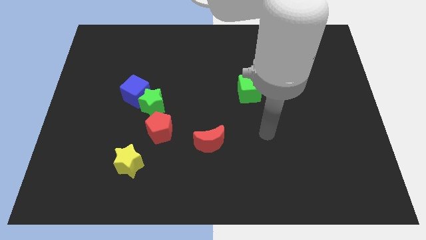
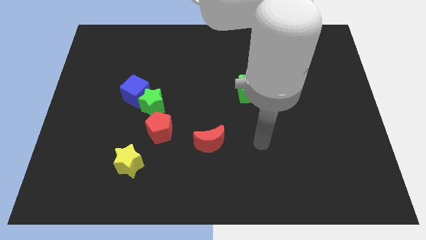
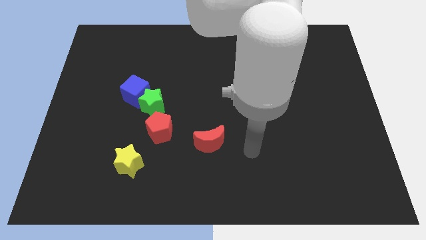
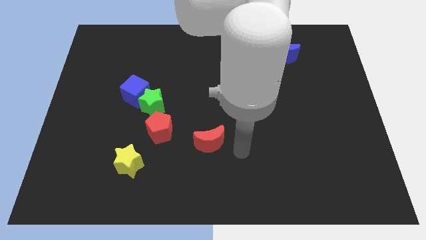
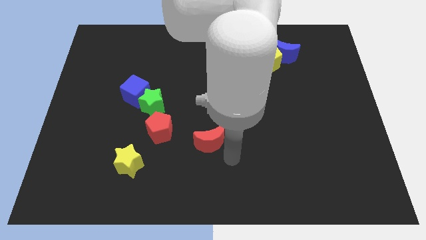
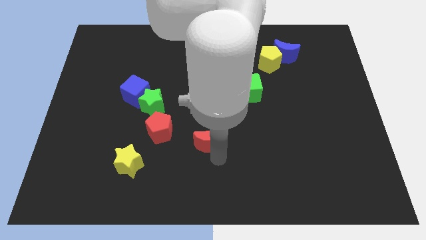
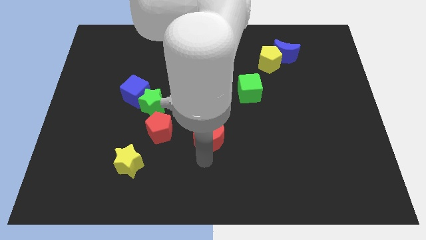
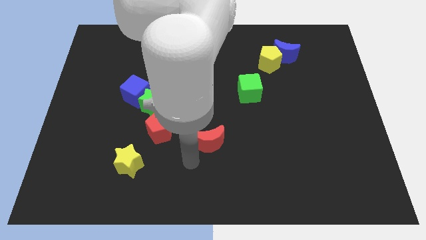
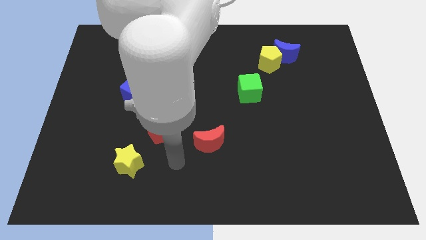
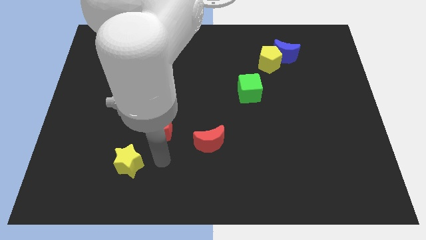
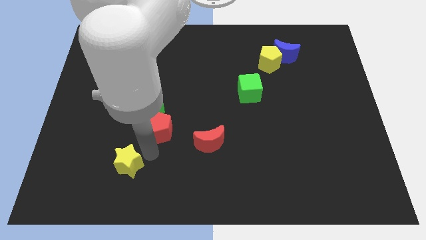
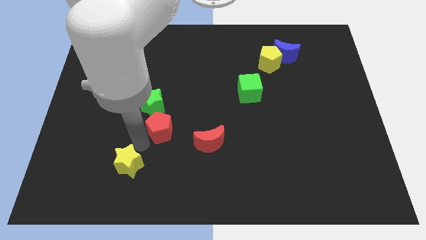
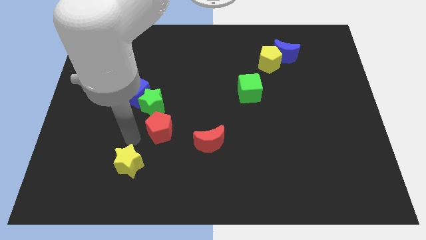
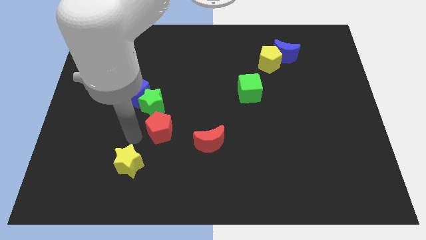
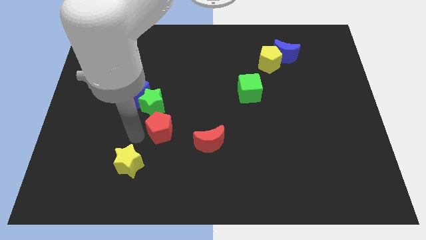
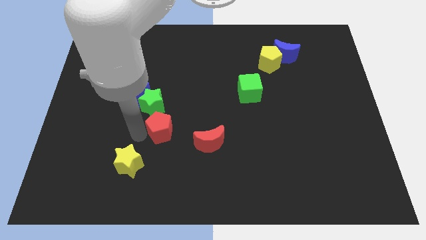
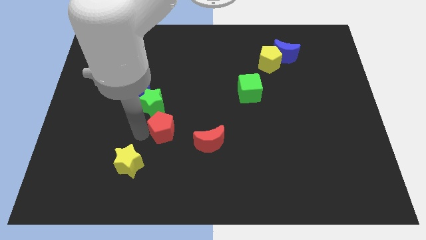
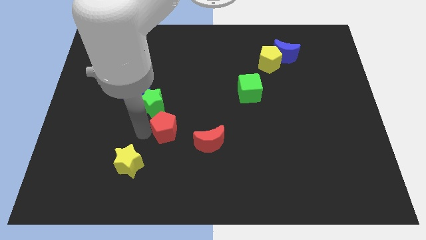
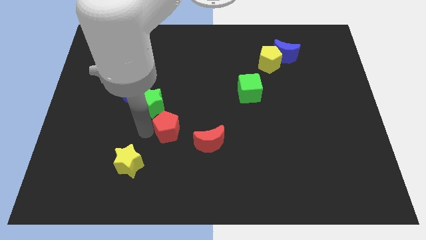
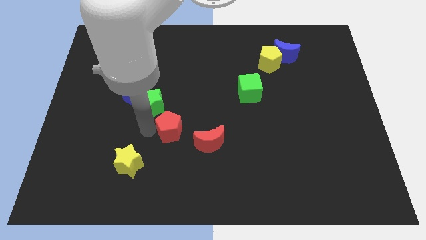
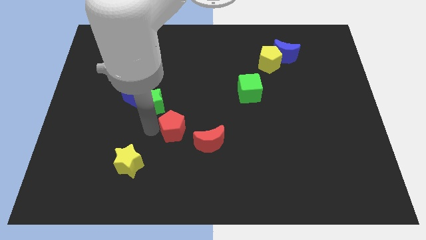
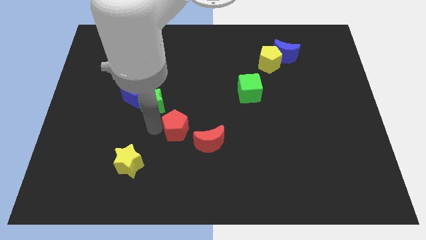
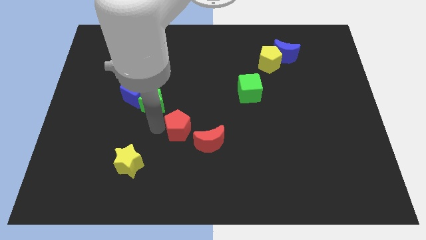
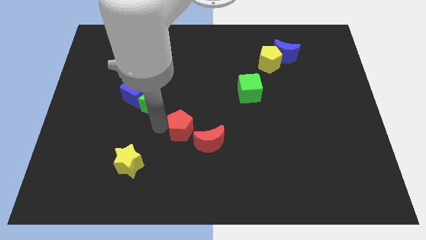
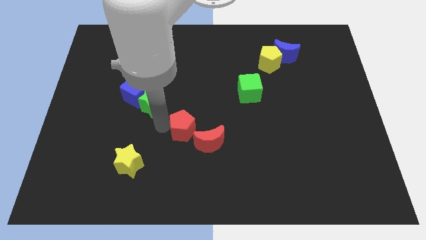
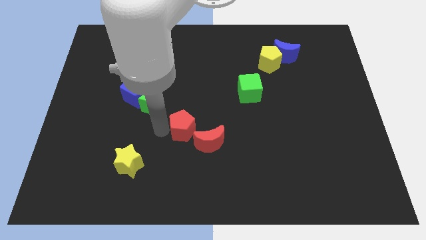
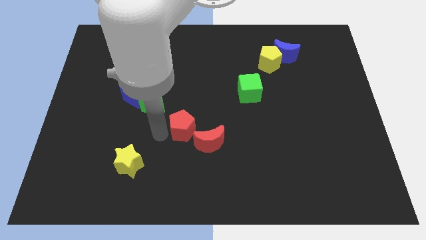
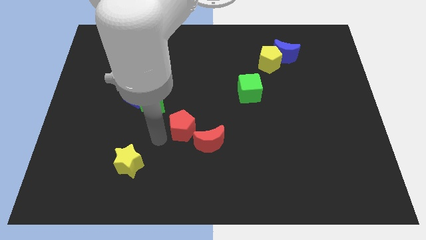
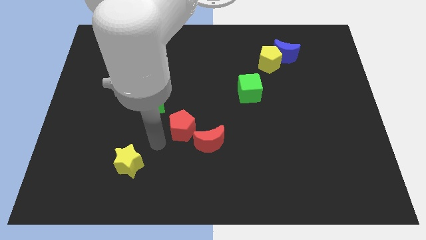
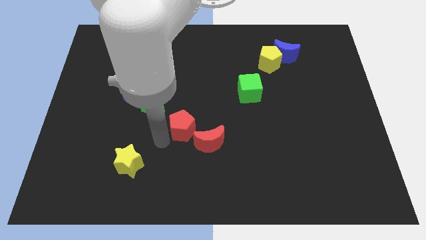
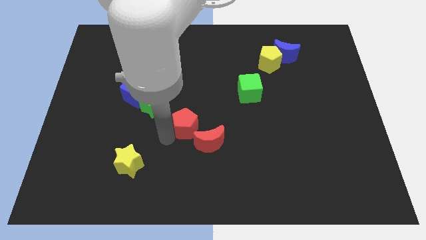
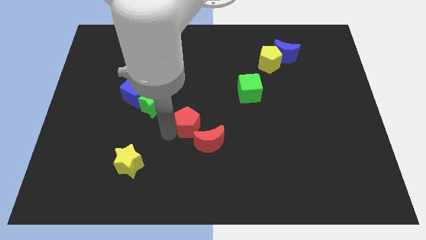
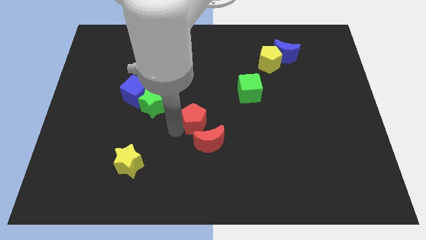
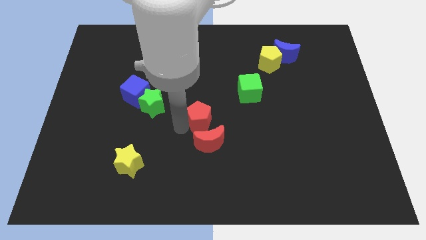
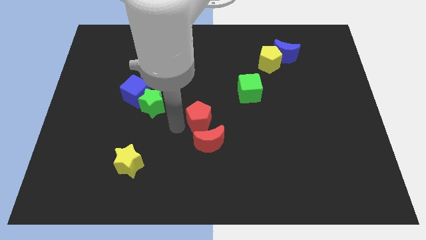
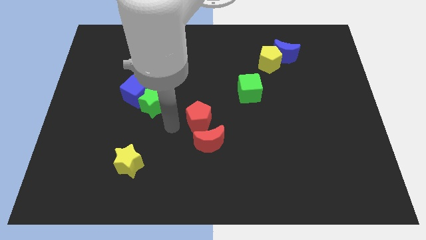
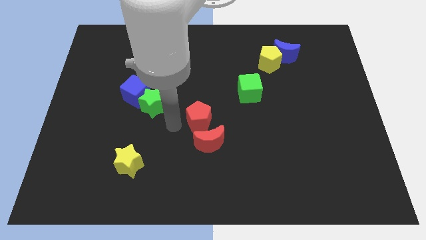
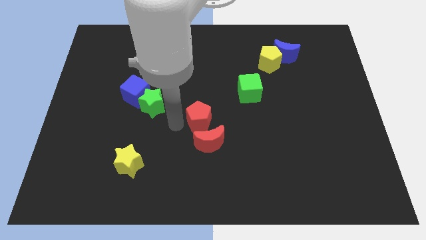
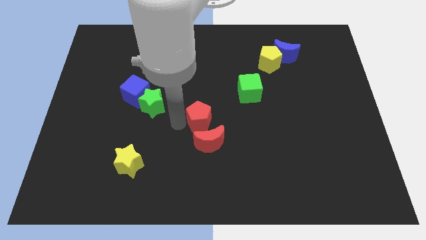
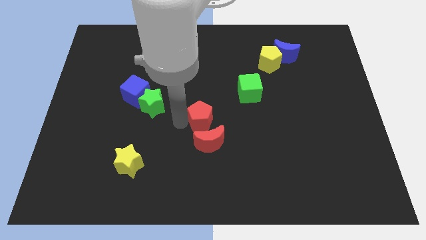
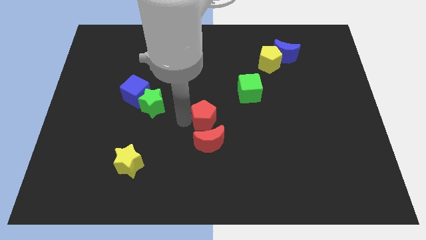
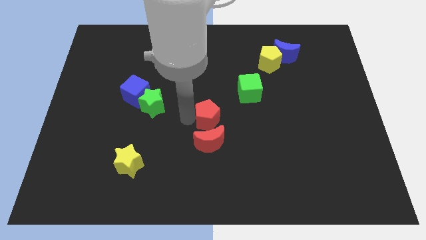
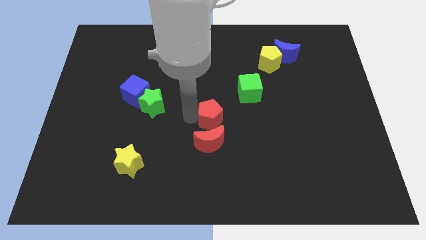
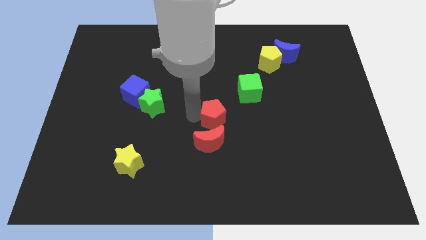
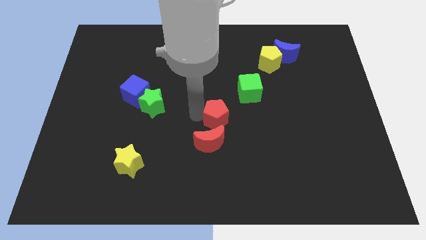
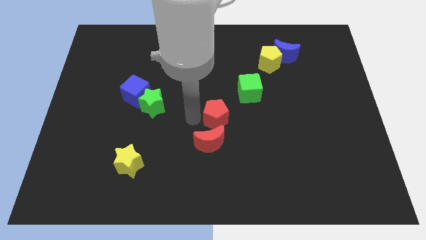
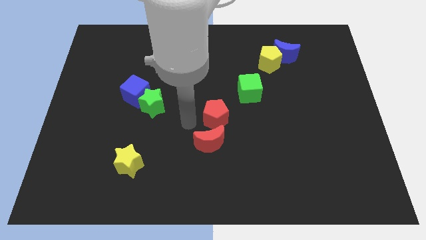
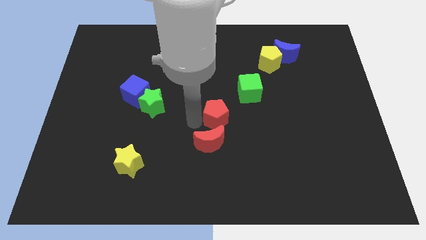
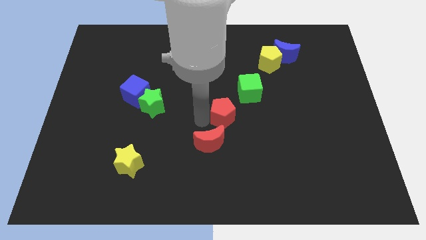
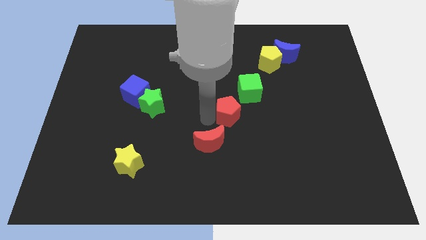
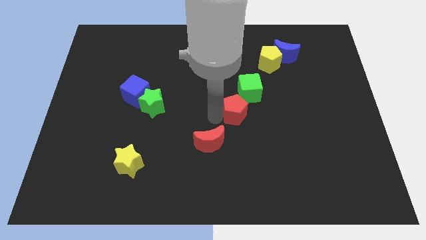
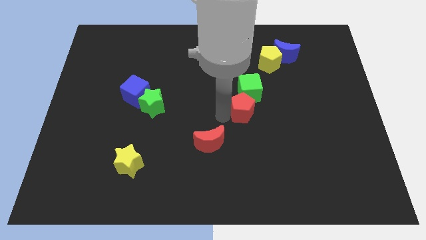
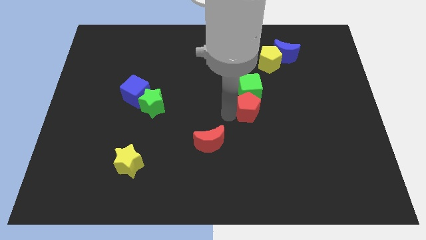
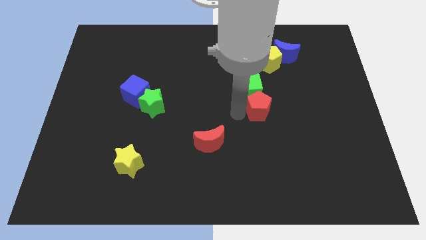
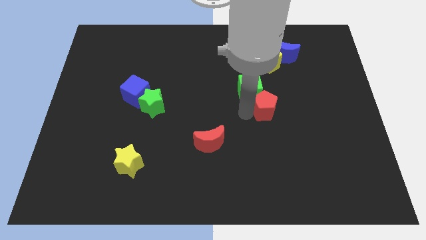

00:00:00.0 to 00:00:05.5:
push the red pentagon to the bottom side of the yellow pentagon

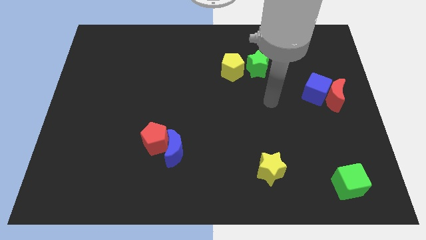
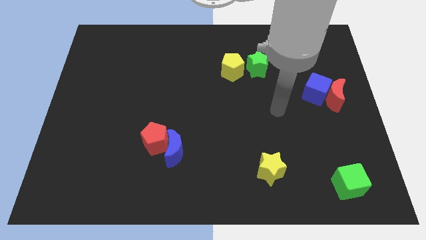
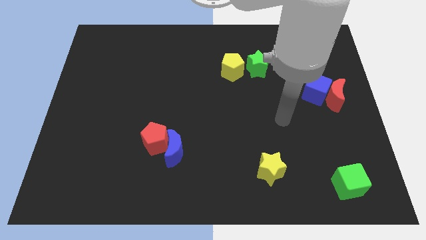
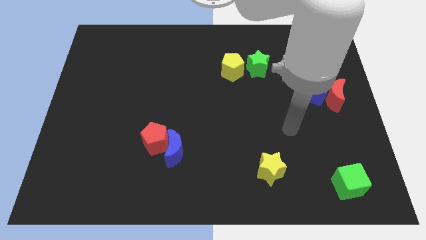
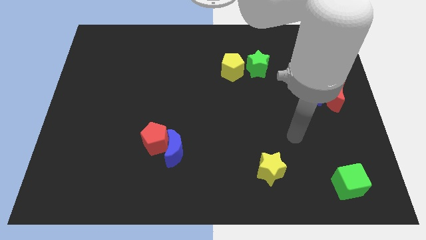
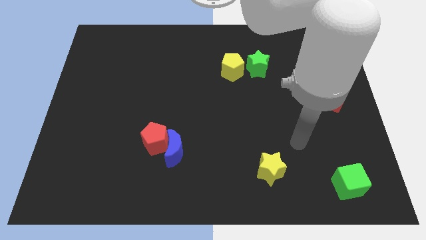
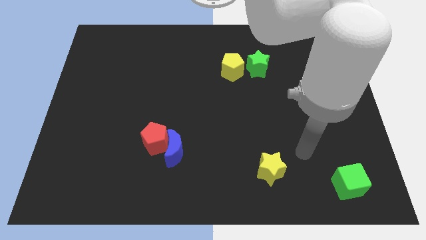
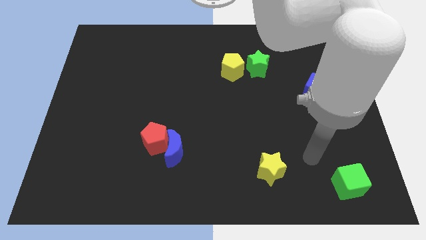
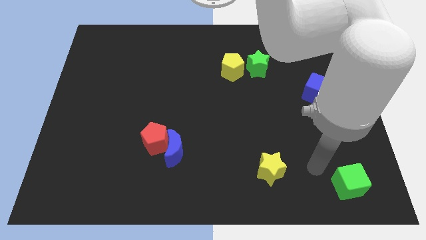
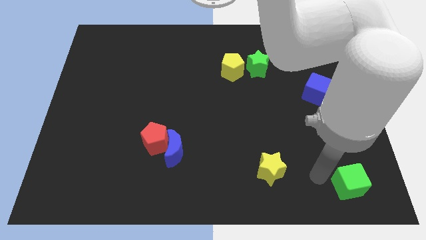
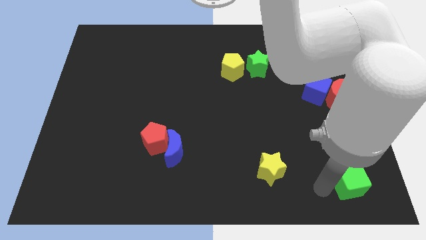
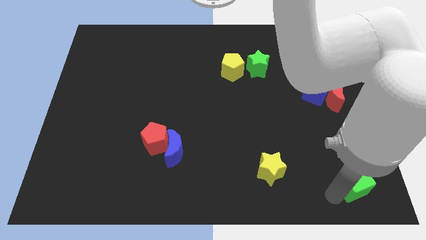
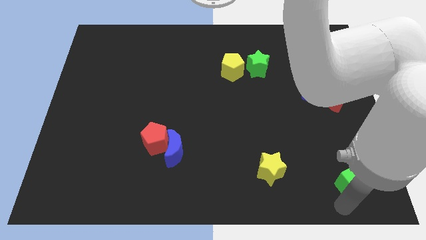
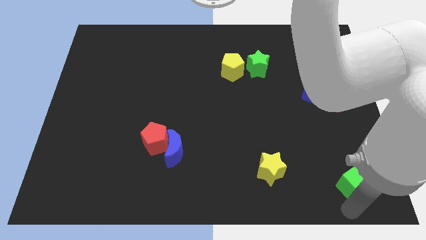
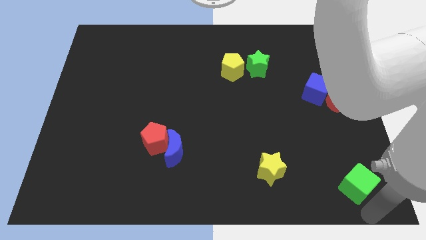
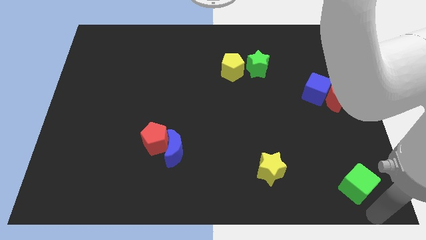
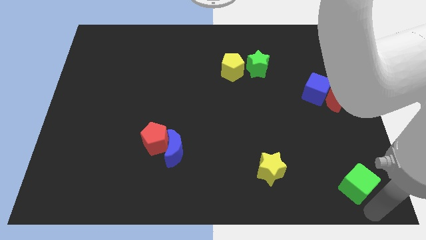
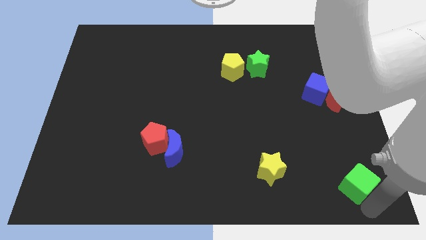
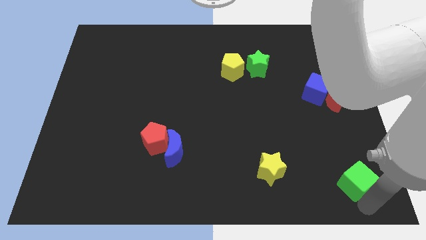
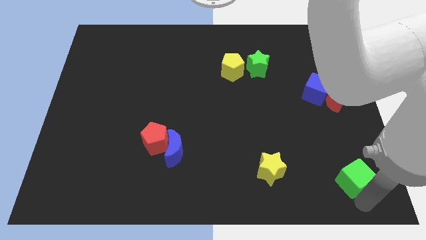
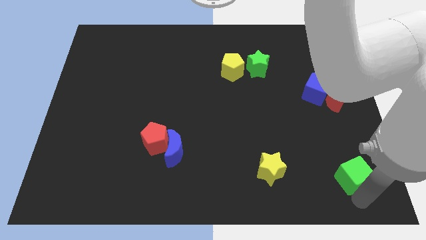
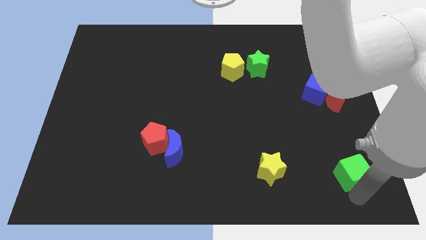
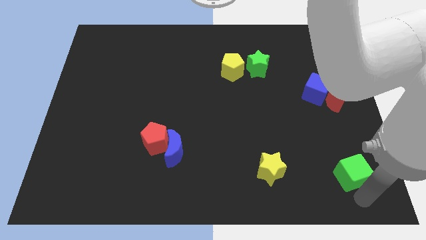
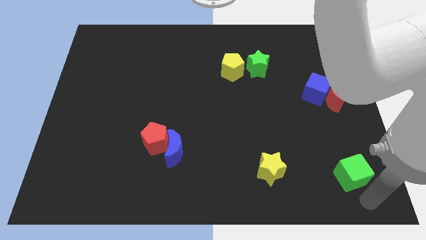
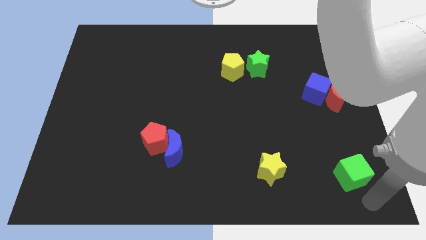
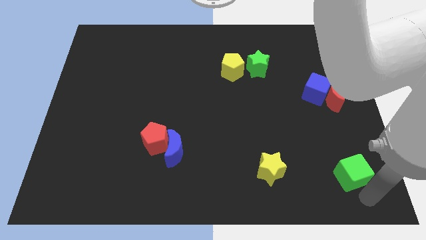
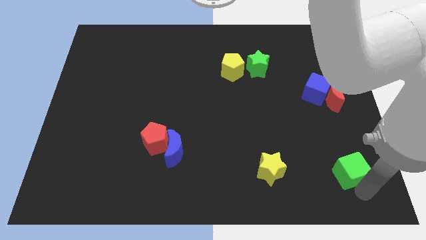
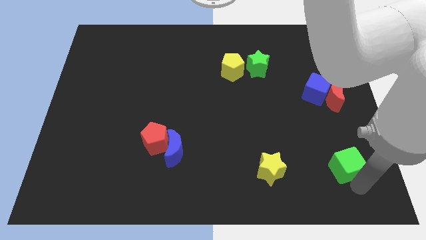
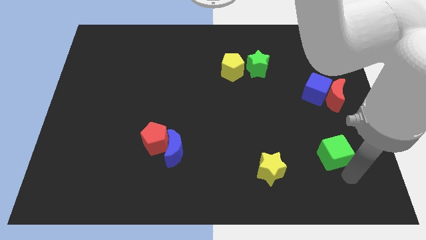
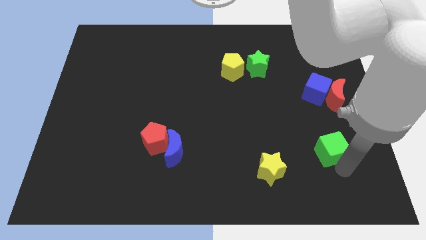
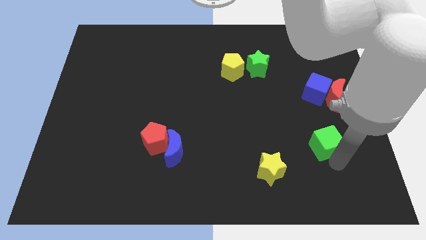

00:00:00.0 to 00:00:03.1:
push the green cube to the bottom side of the blue cube
